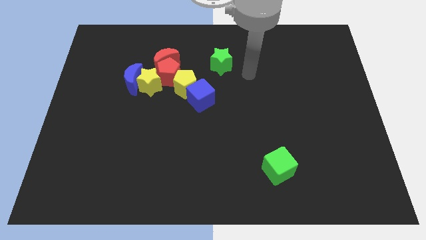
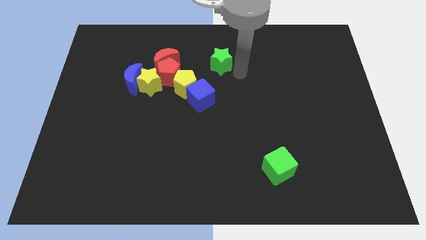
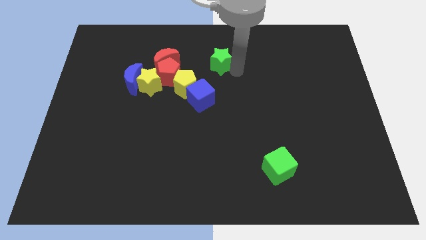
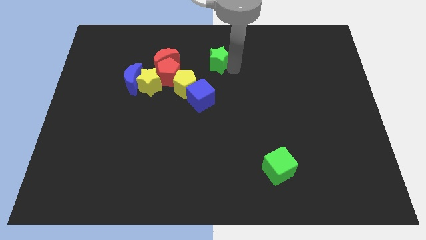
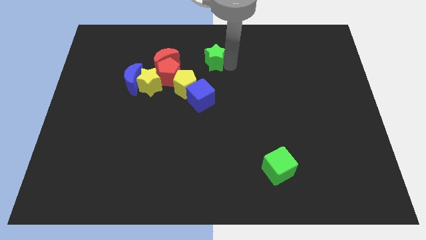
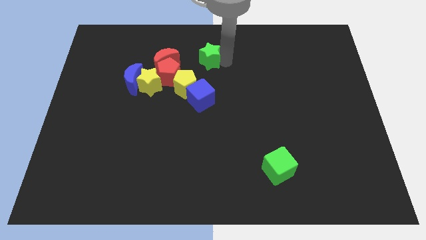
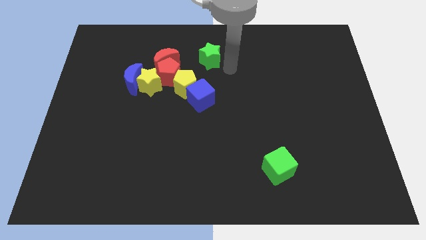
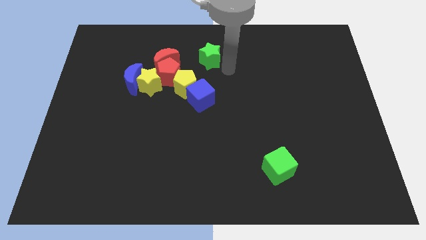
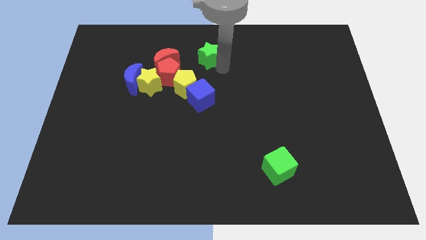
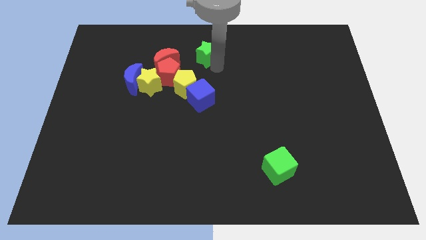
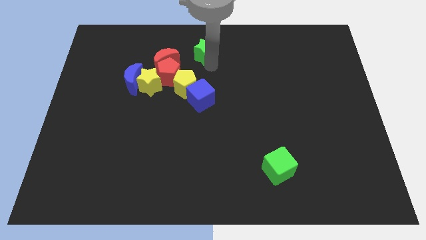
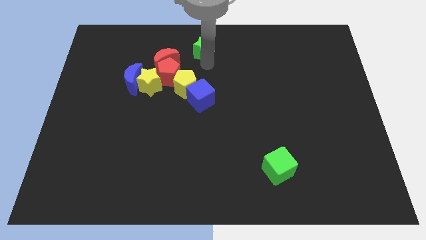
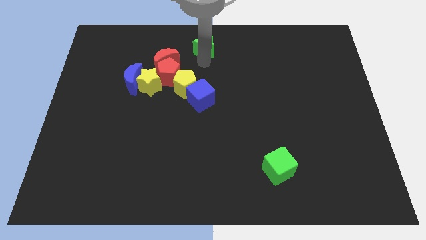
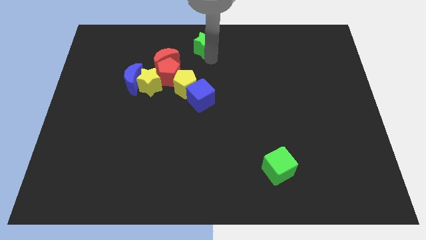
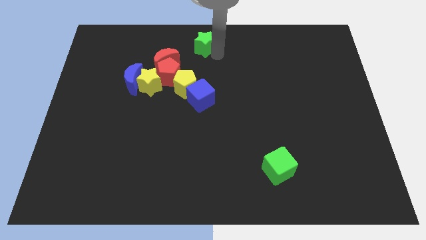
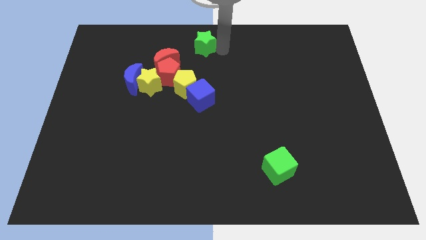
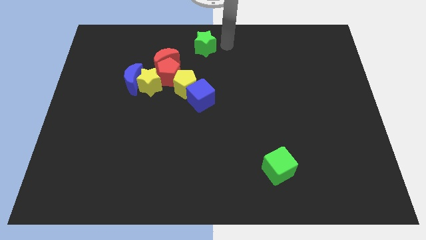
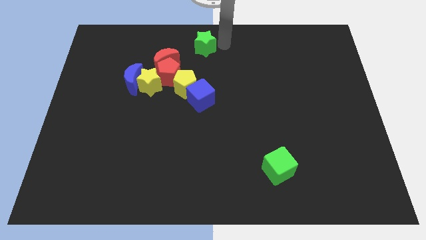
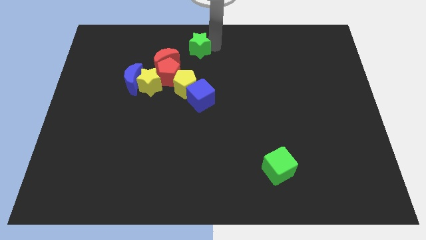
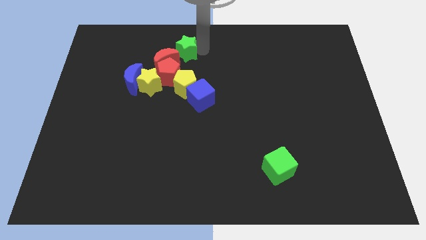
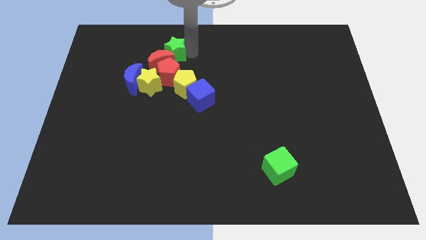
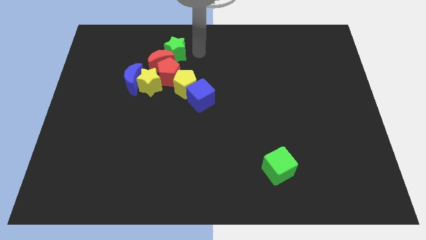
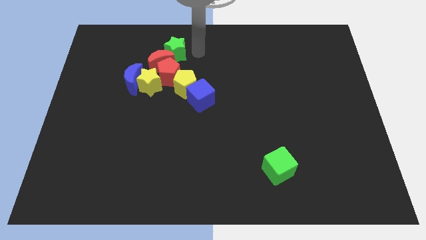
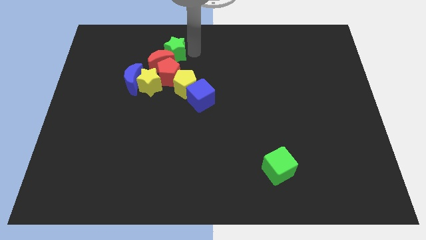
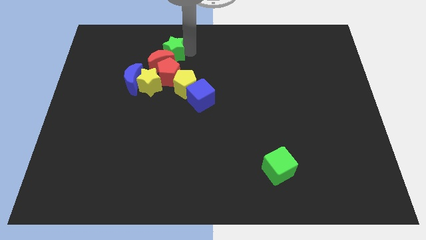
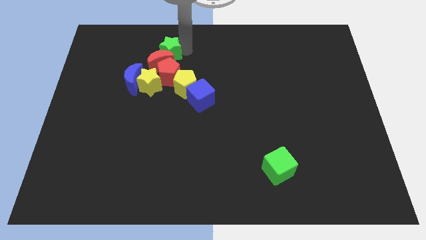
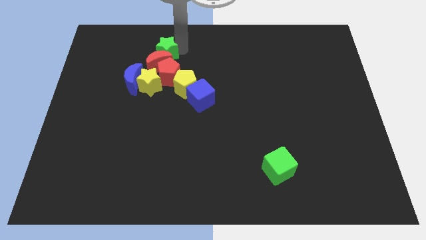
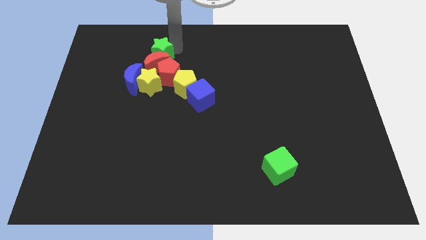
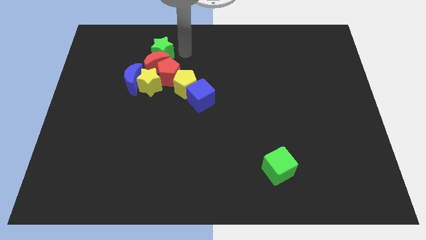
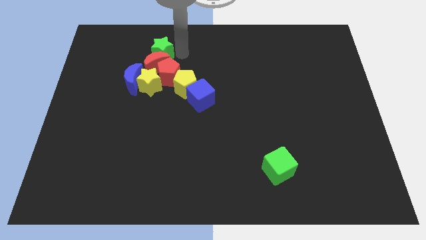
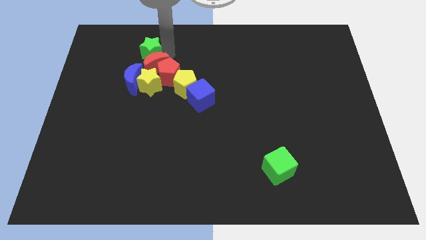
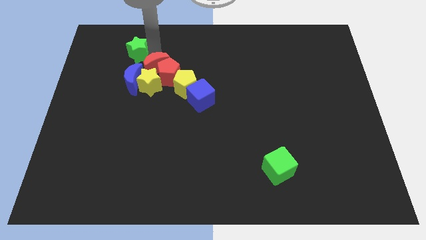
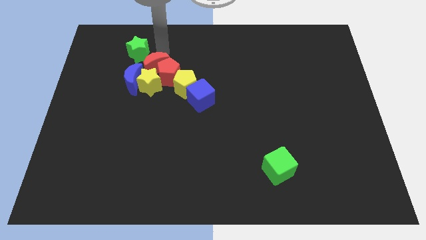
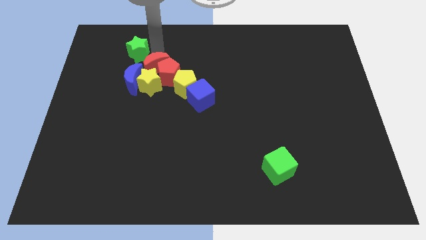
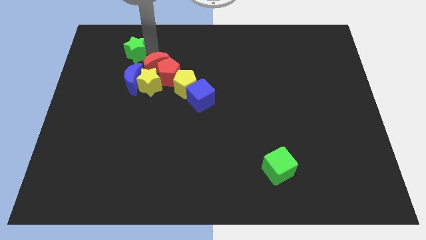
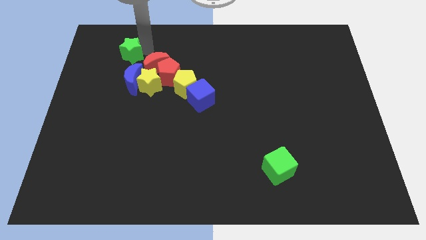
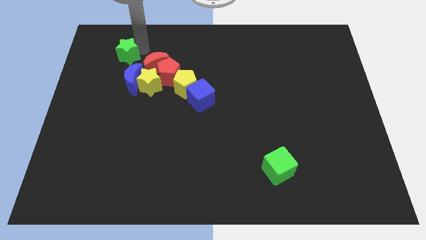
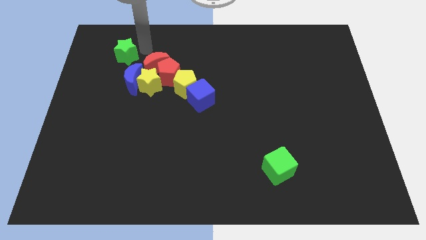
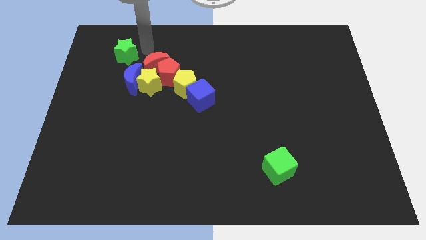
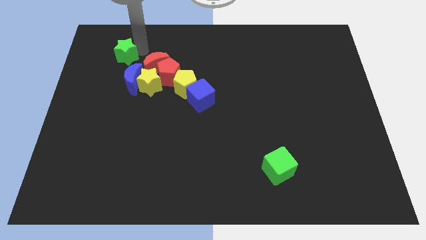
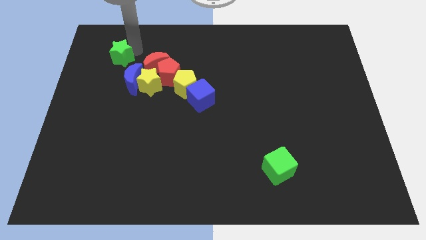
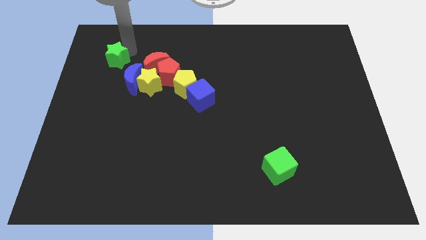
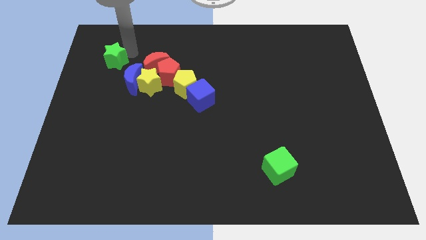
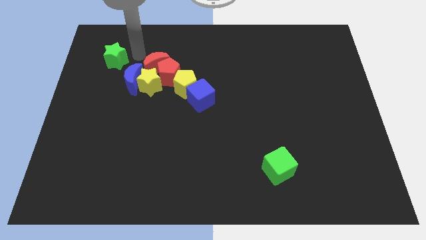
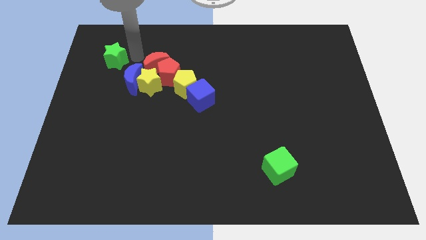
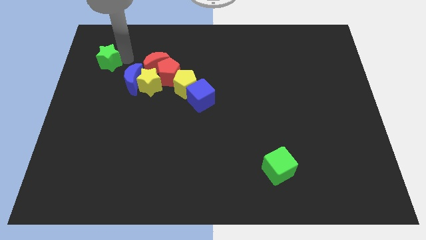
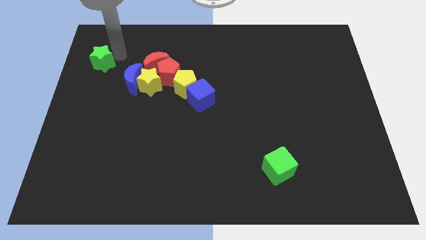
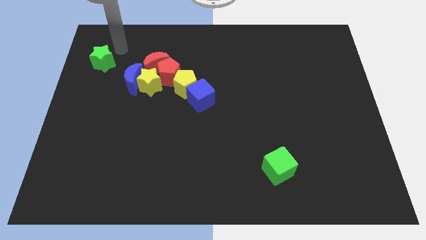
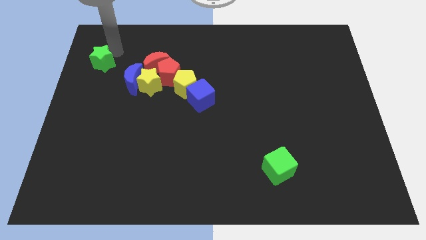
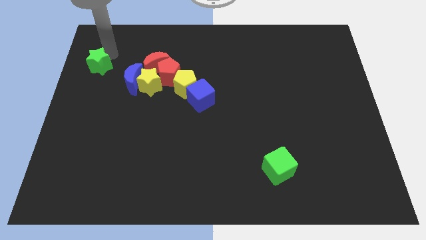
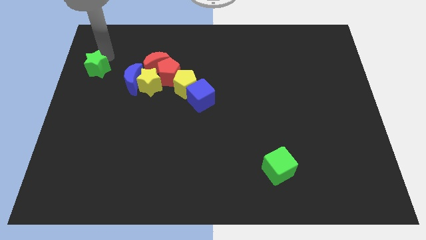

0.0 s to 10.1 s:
push the green star to the center left

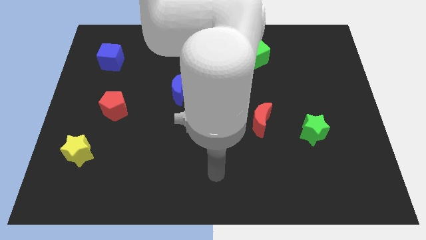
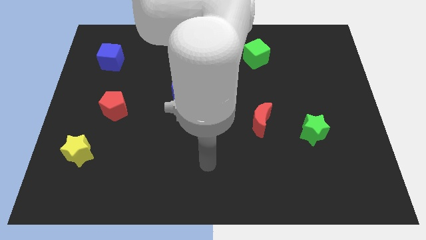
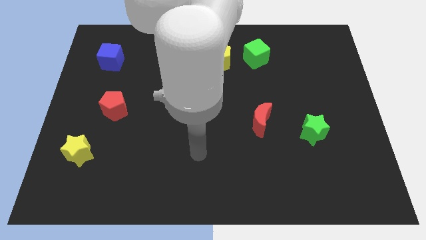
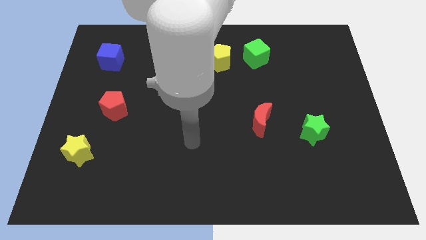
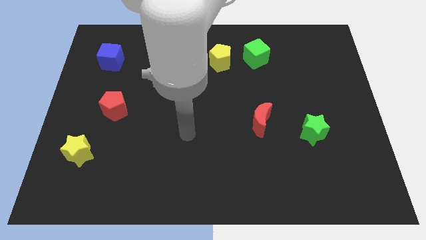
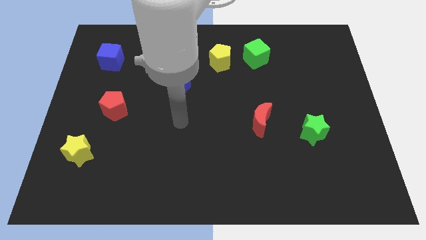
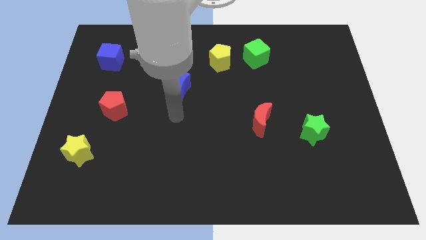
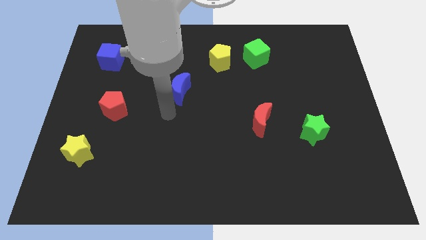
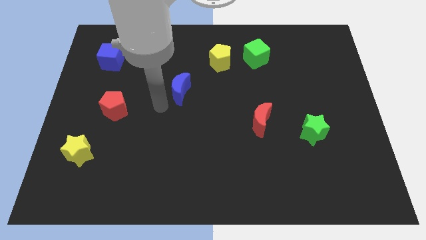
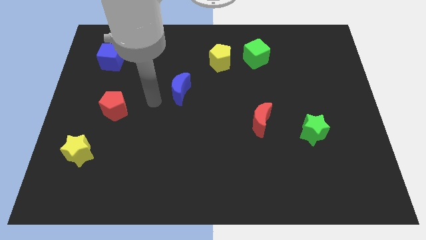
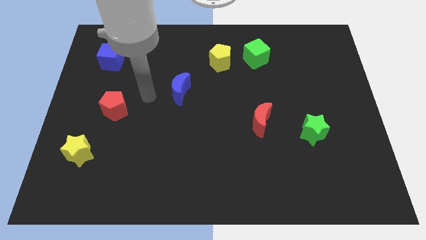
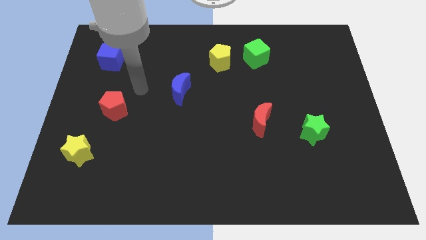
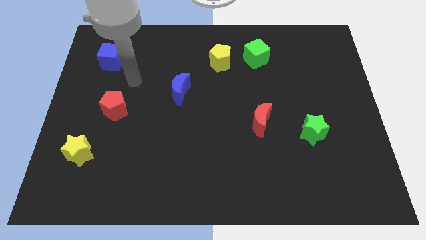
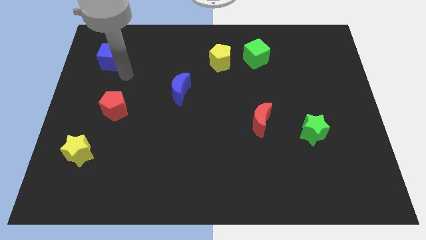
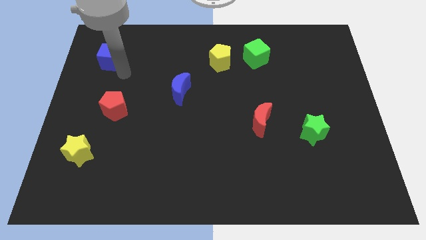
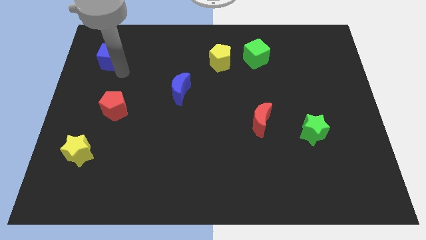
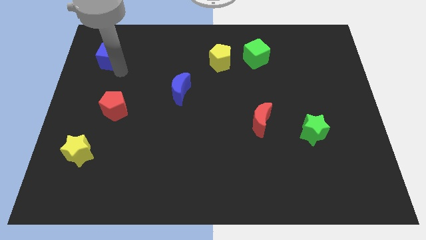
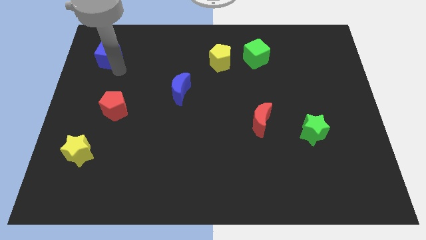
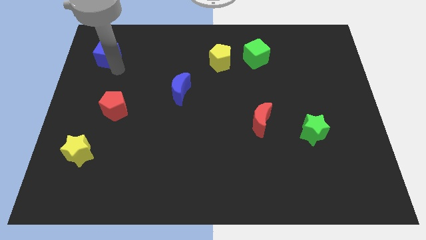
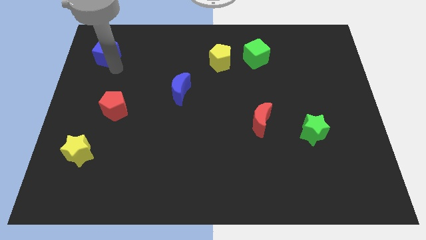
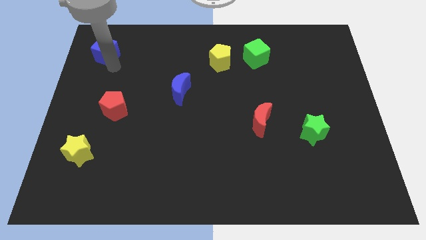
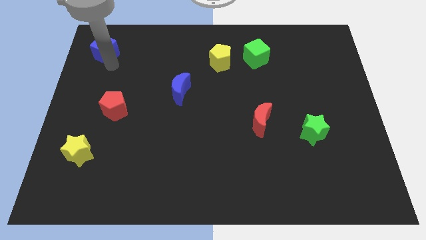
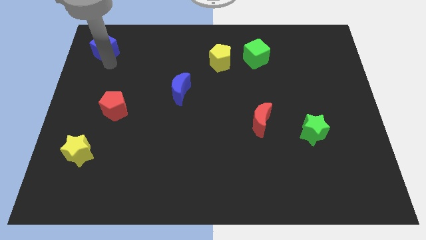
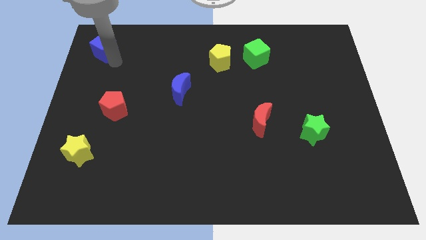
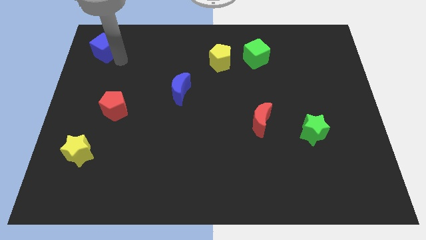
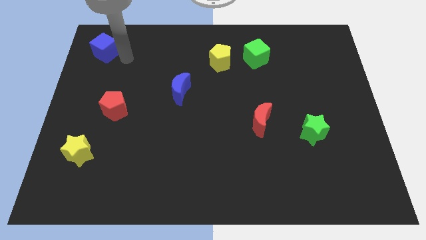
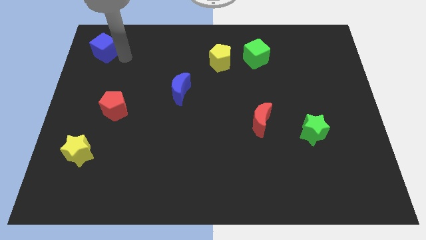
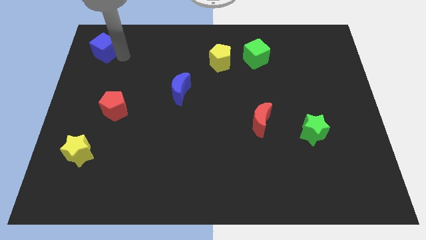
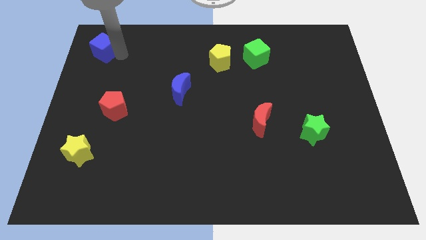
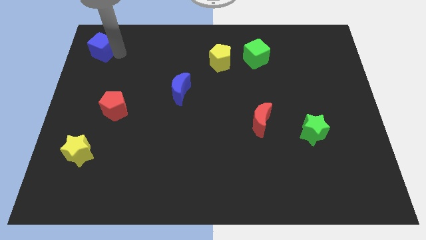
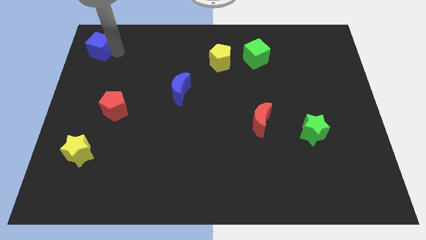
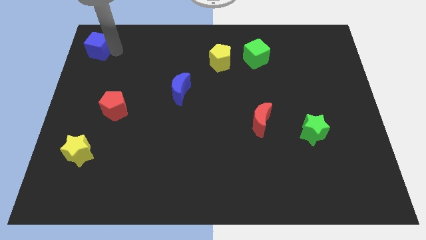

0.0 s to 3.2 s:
move the blue cube to the top left
